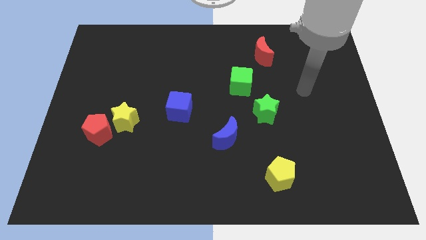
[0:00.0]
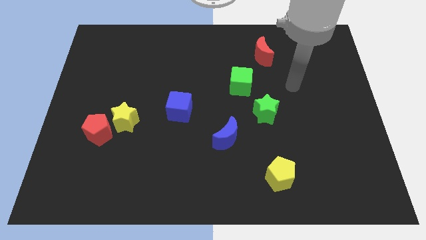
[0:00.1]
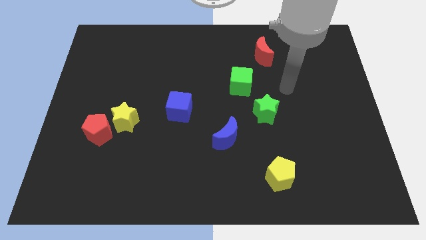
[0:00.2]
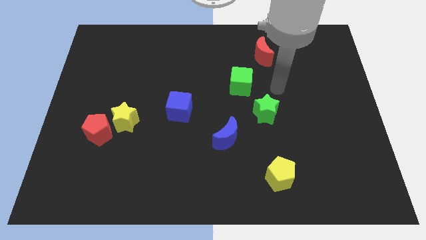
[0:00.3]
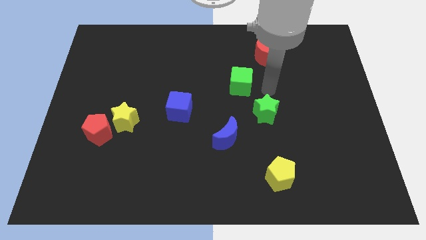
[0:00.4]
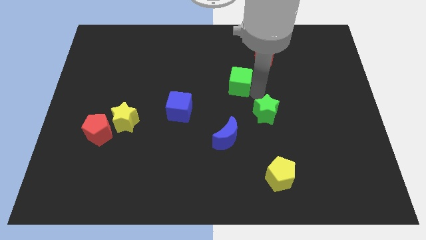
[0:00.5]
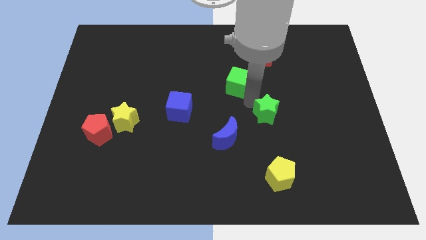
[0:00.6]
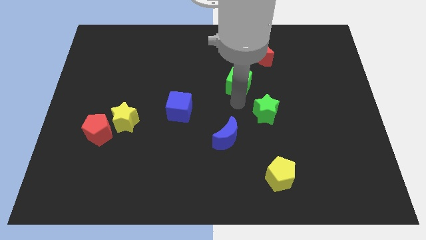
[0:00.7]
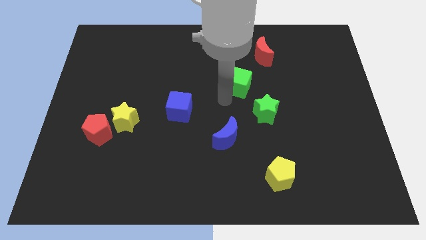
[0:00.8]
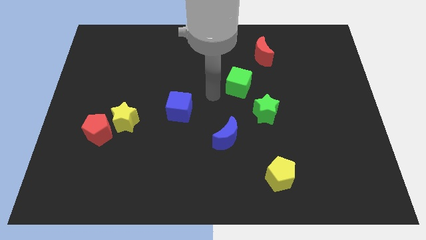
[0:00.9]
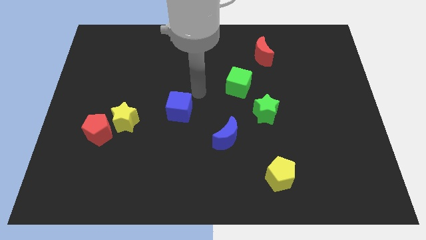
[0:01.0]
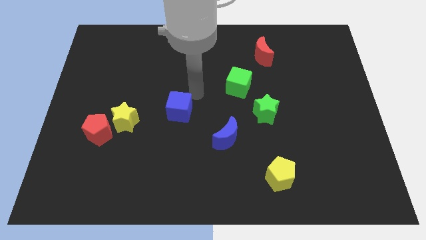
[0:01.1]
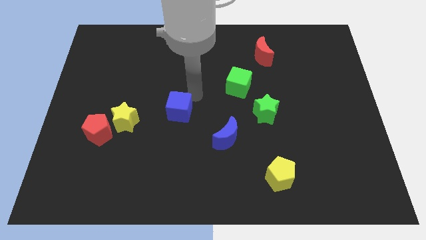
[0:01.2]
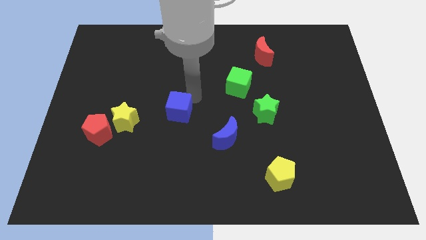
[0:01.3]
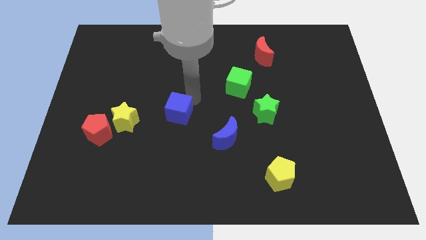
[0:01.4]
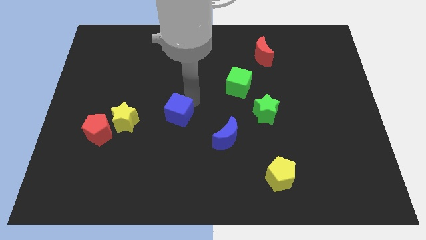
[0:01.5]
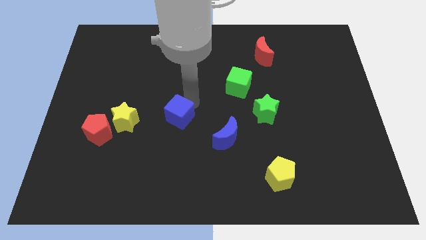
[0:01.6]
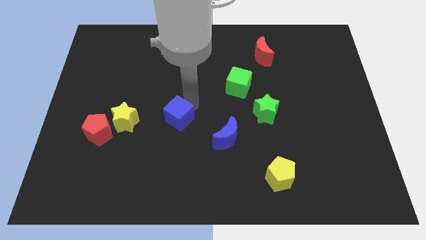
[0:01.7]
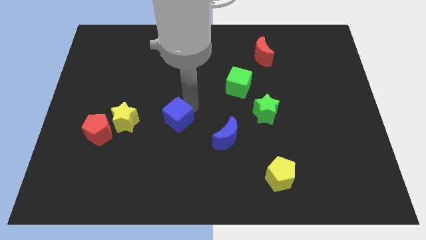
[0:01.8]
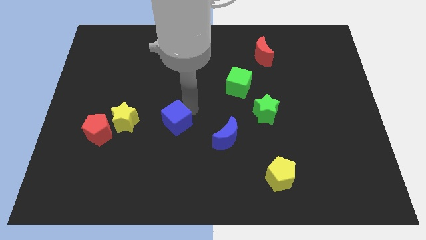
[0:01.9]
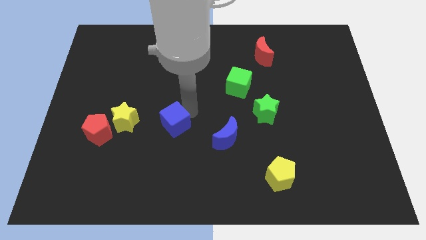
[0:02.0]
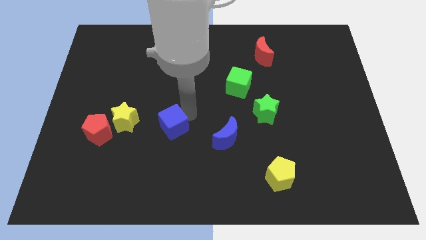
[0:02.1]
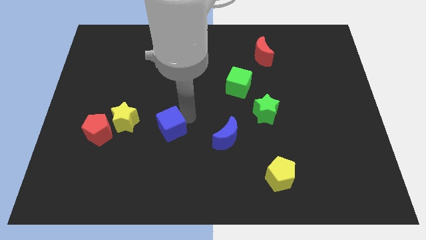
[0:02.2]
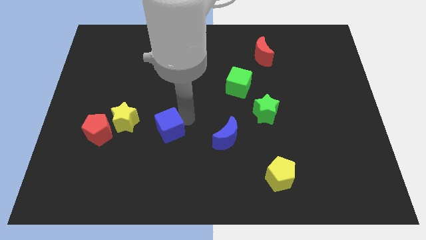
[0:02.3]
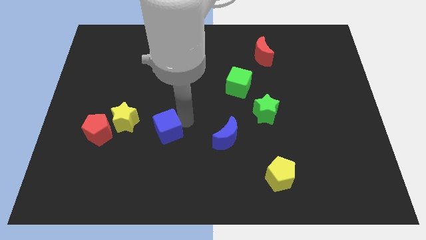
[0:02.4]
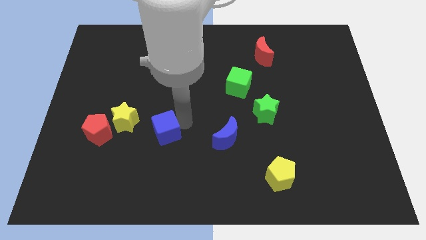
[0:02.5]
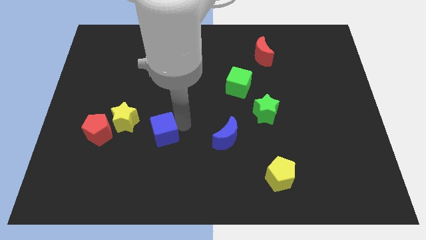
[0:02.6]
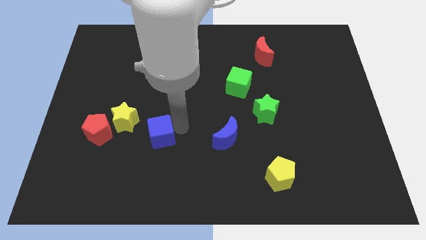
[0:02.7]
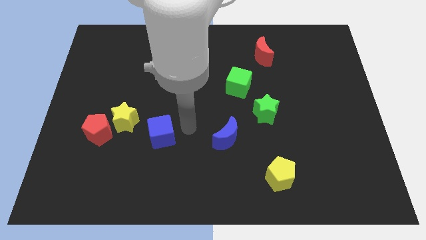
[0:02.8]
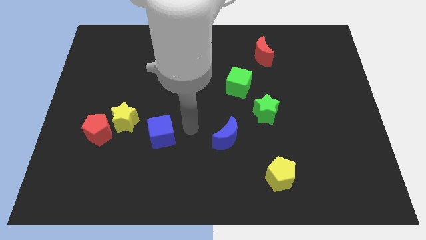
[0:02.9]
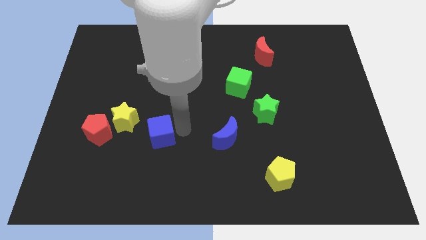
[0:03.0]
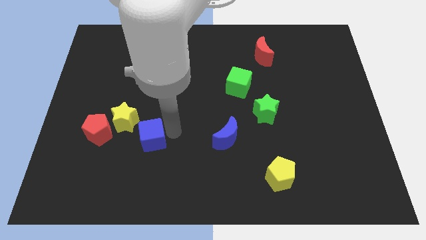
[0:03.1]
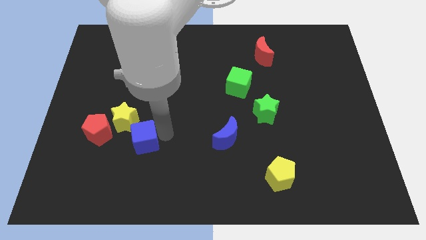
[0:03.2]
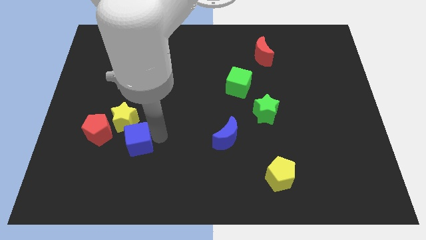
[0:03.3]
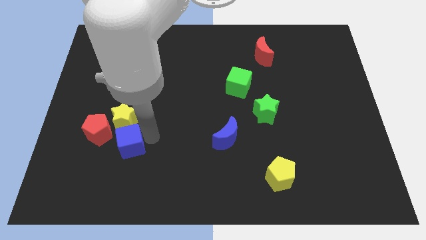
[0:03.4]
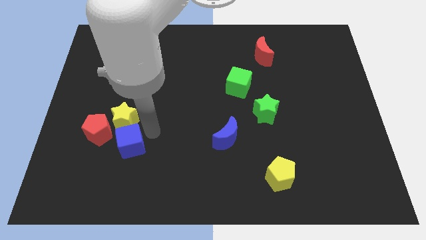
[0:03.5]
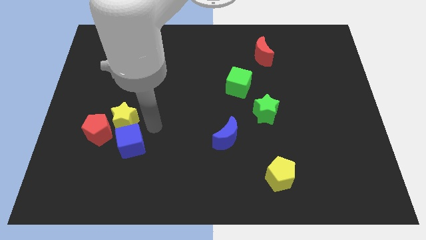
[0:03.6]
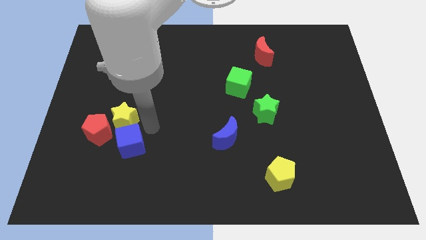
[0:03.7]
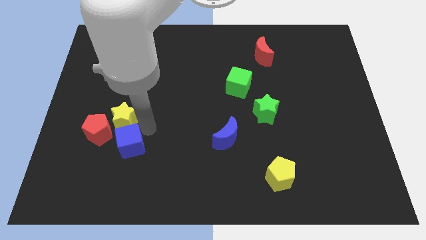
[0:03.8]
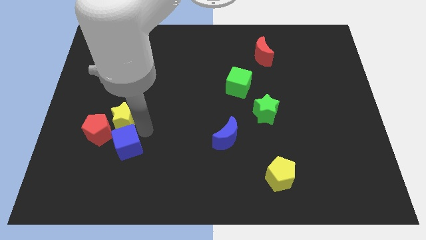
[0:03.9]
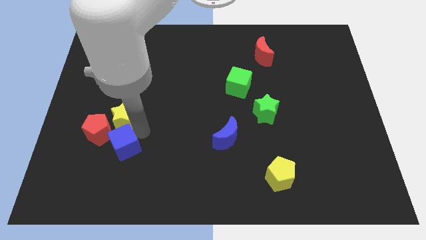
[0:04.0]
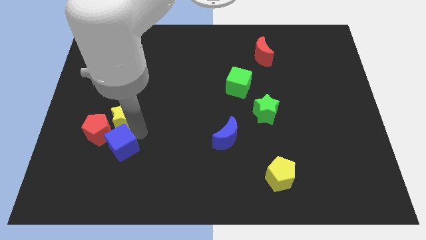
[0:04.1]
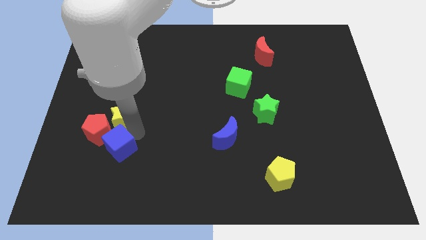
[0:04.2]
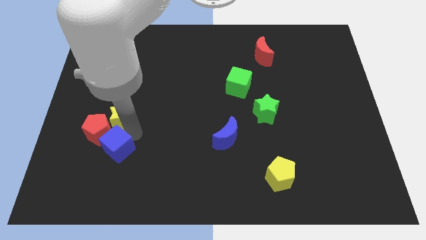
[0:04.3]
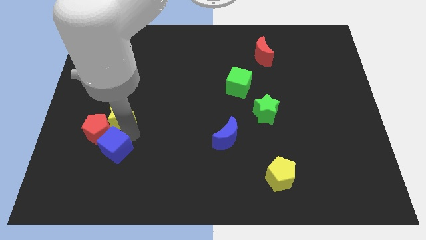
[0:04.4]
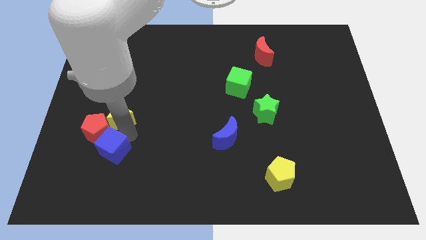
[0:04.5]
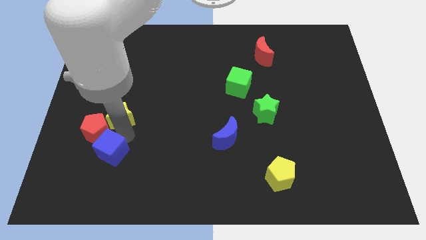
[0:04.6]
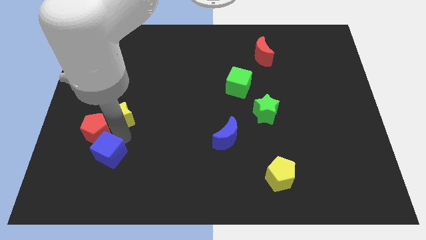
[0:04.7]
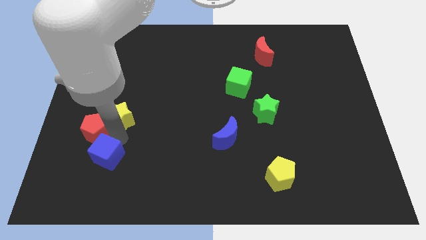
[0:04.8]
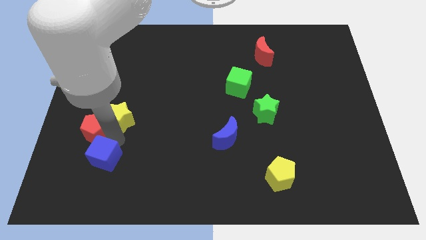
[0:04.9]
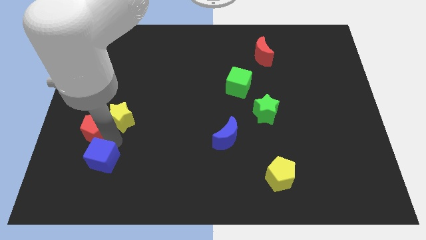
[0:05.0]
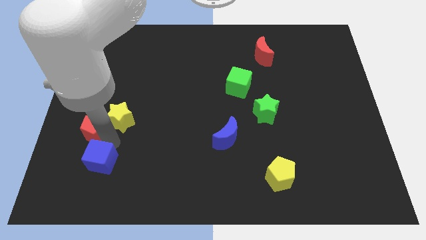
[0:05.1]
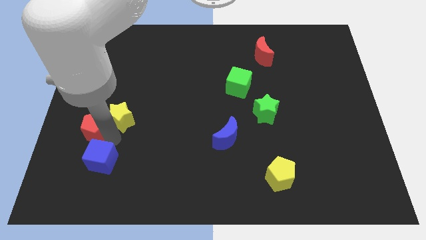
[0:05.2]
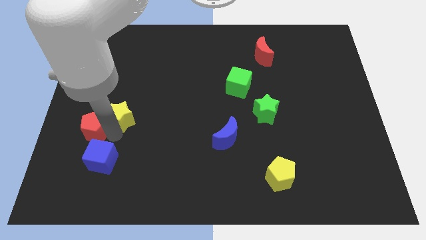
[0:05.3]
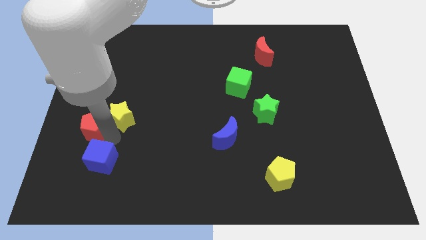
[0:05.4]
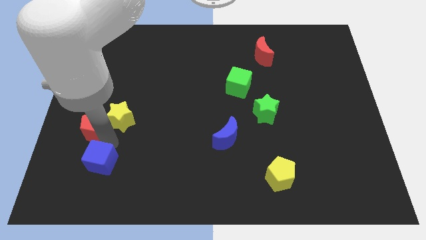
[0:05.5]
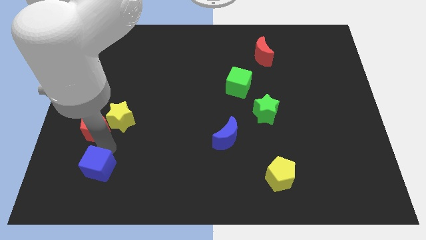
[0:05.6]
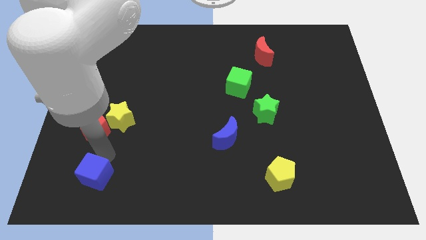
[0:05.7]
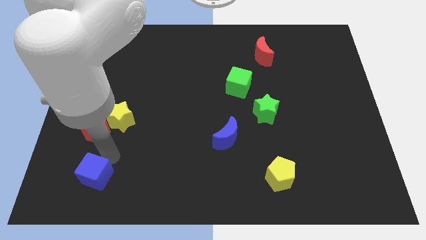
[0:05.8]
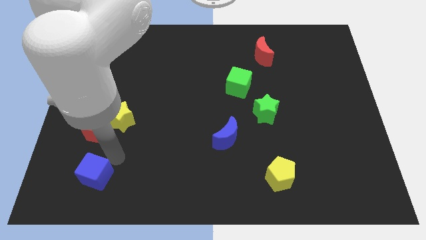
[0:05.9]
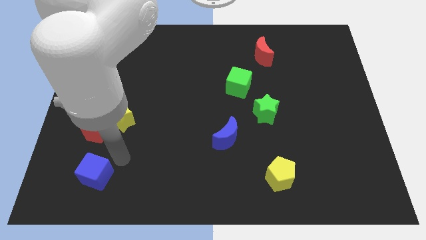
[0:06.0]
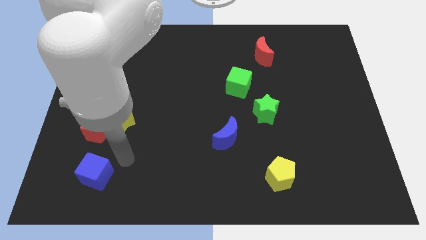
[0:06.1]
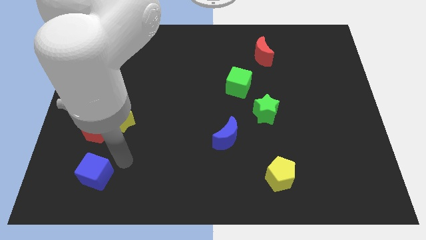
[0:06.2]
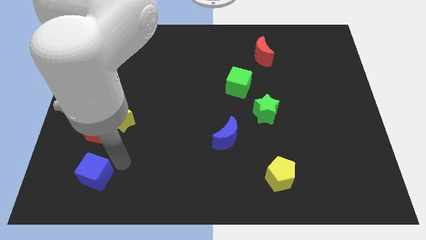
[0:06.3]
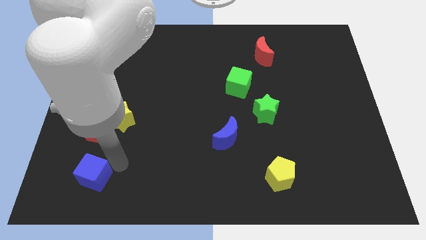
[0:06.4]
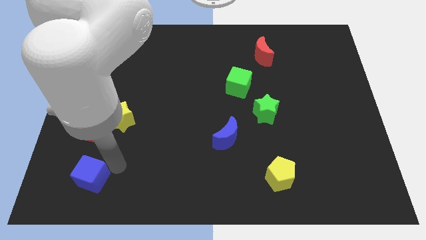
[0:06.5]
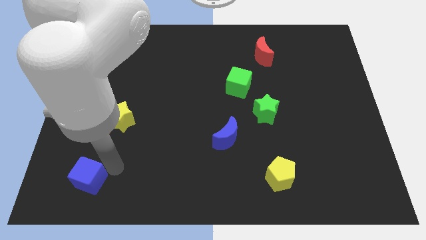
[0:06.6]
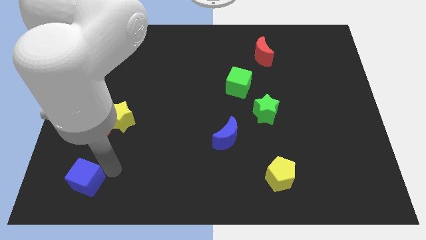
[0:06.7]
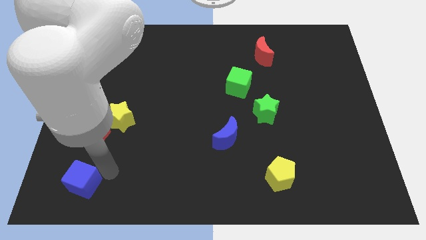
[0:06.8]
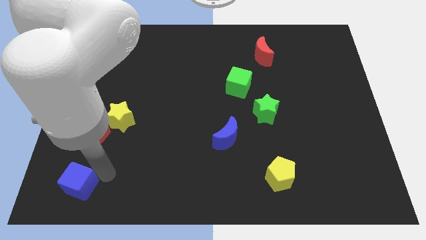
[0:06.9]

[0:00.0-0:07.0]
move the blue cube to the bottom left corner
